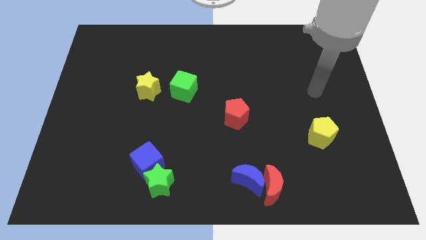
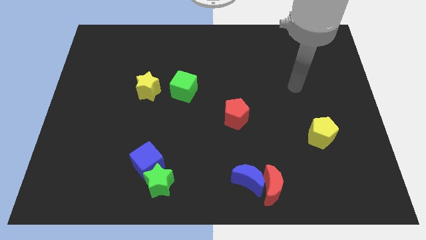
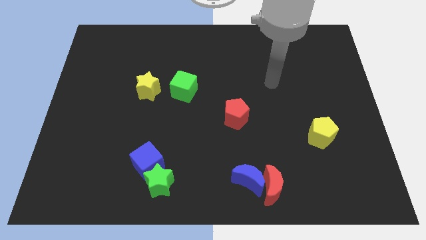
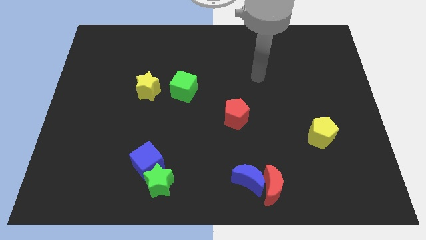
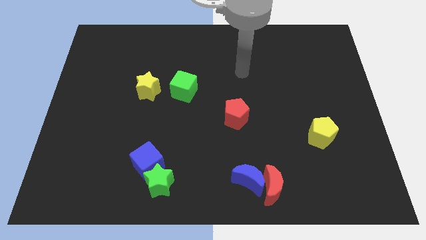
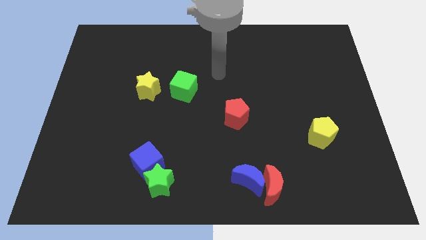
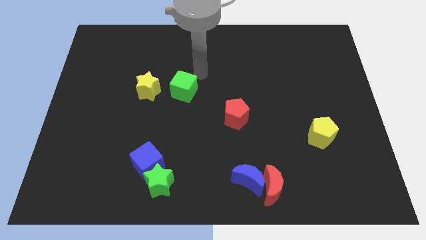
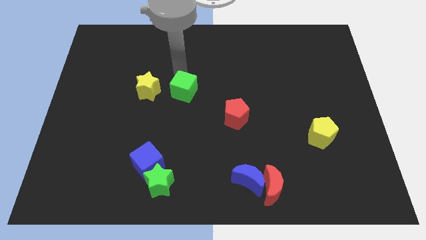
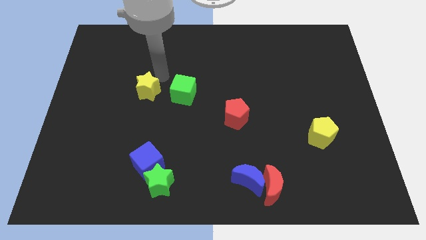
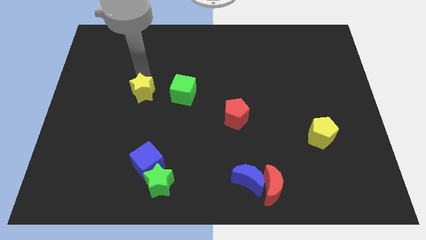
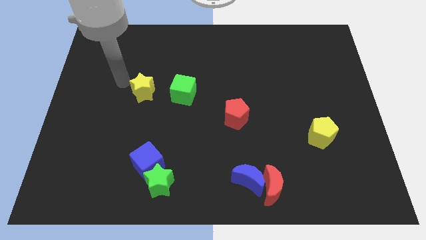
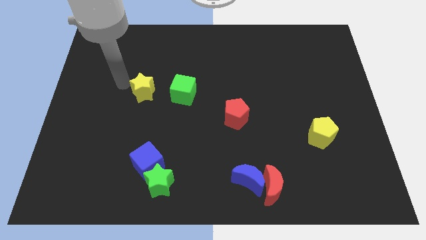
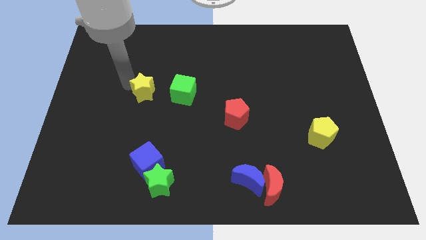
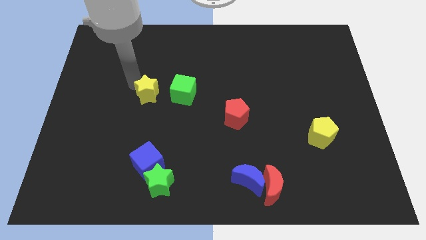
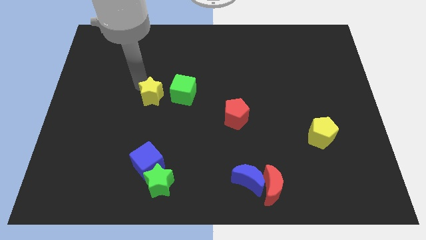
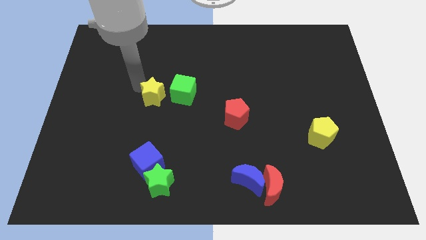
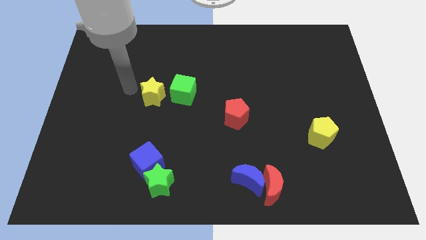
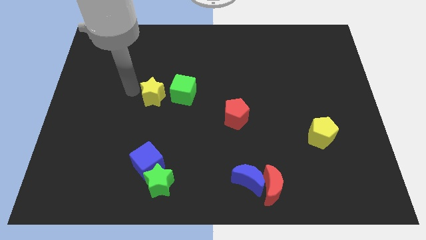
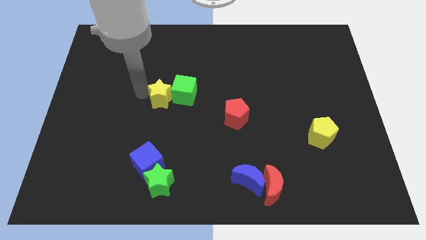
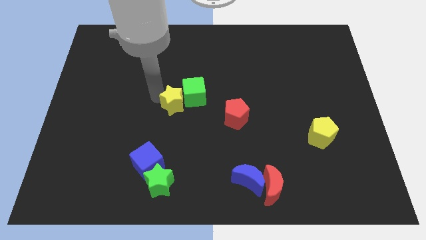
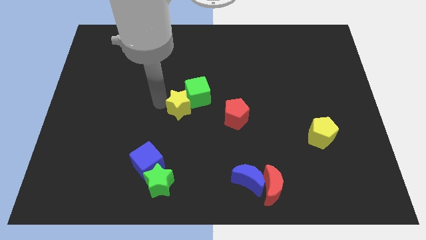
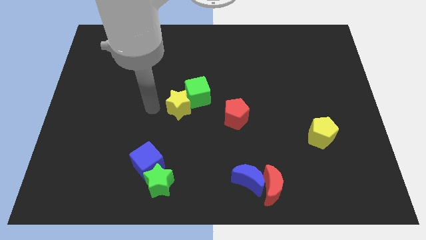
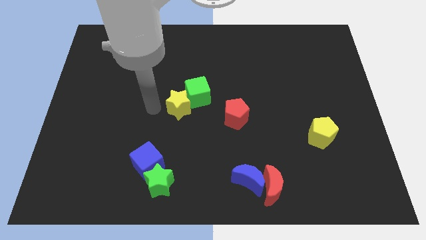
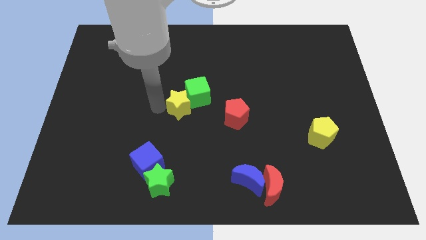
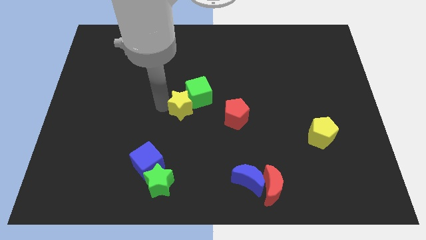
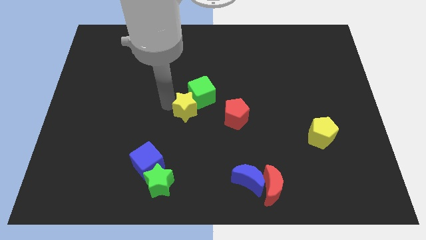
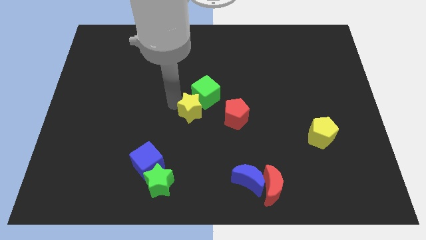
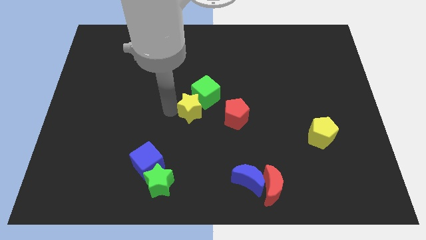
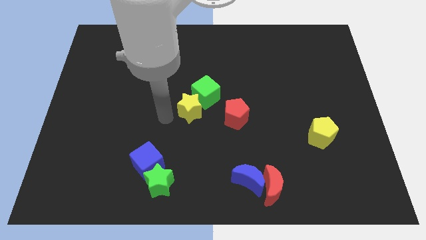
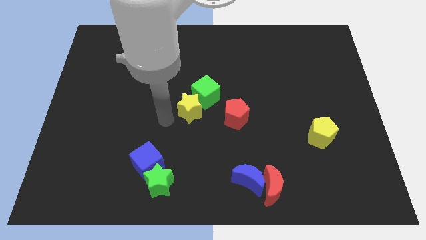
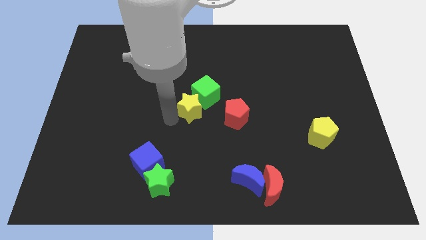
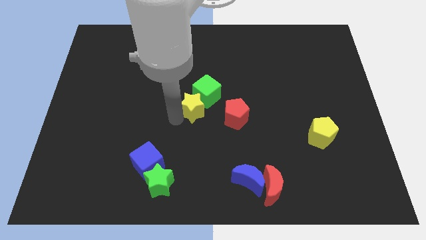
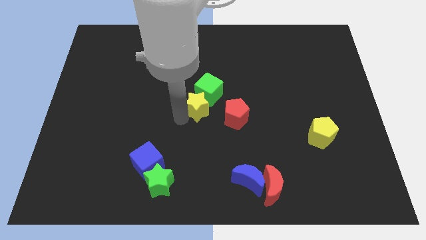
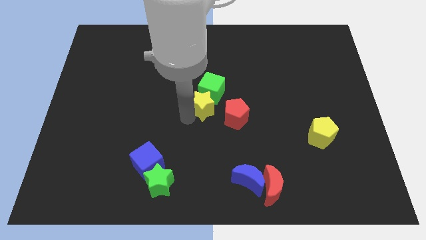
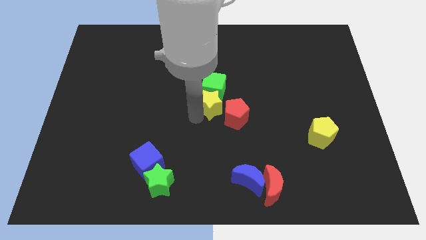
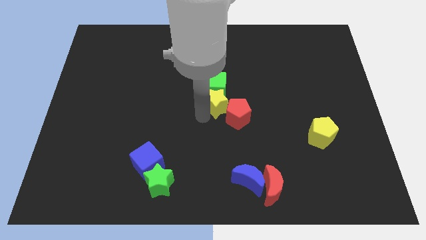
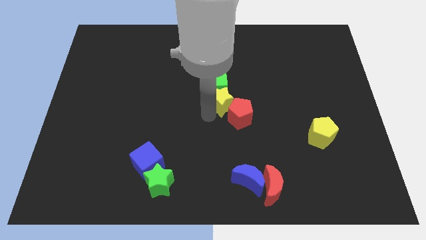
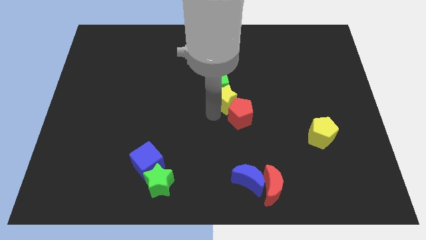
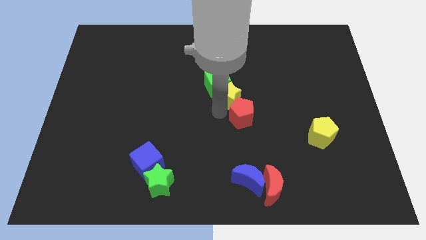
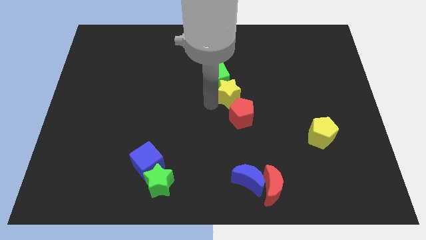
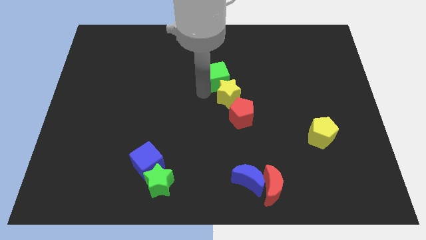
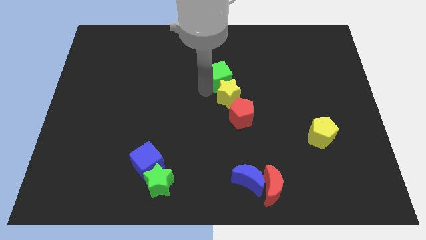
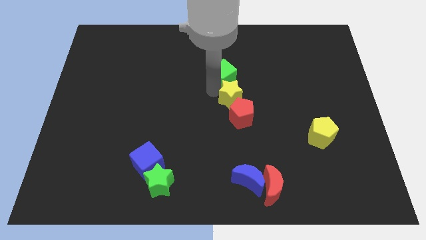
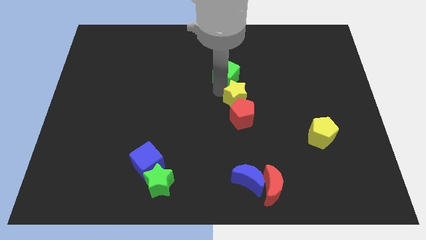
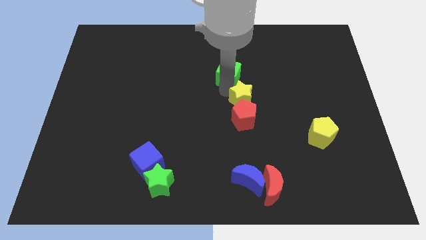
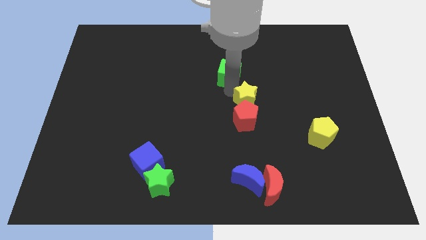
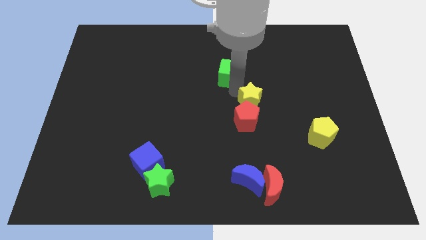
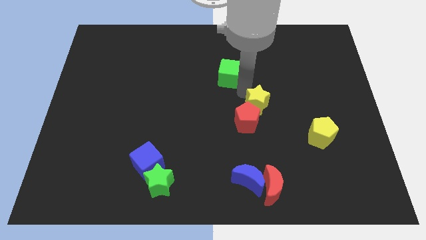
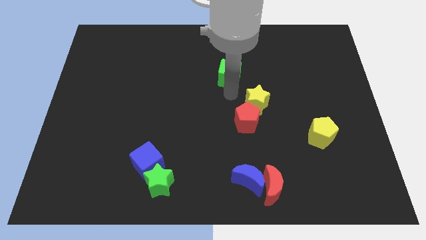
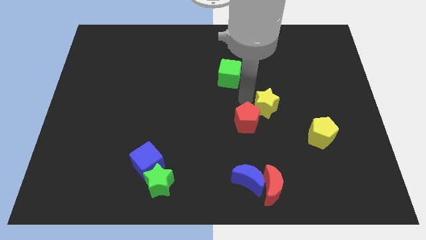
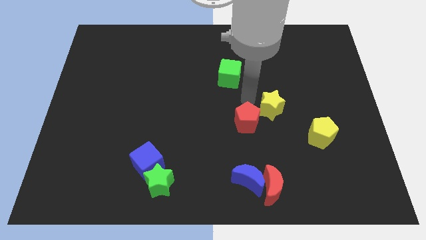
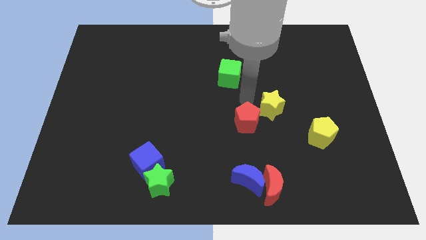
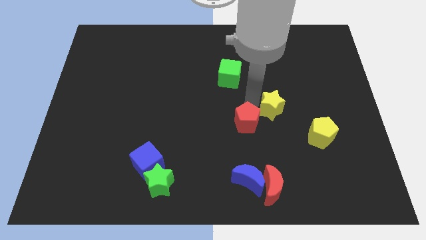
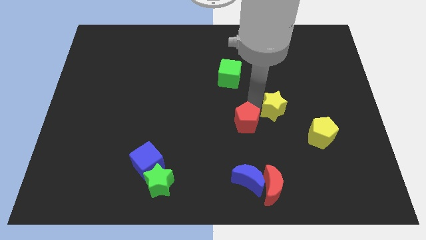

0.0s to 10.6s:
move the yellow star to the top left of the yellow pentagon

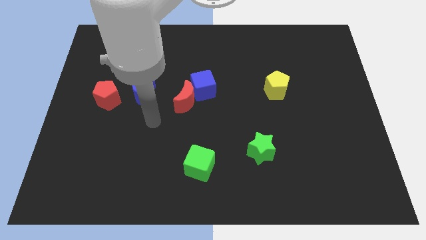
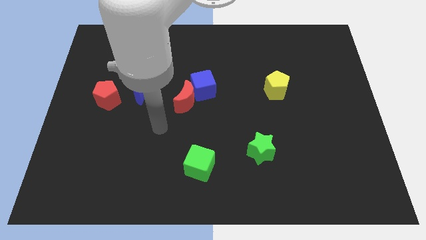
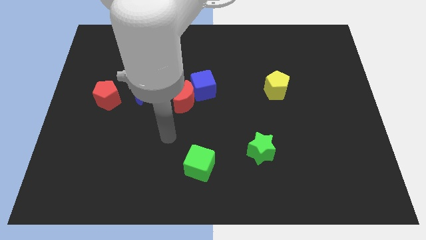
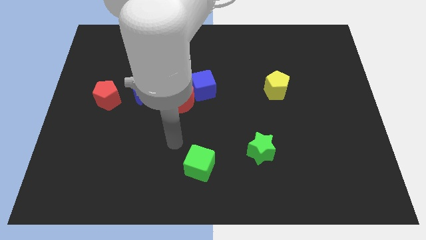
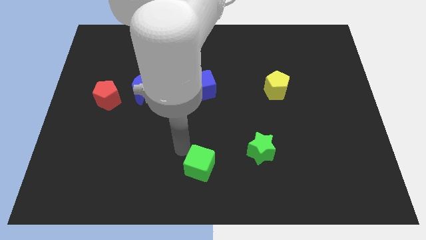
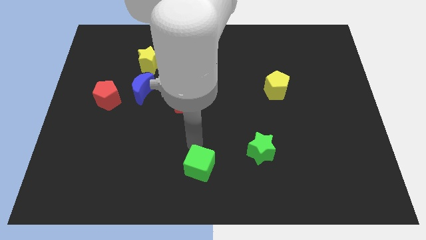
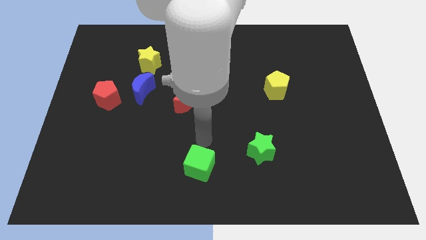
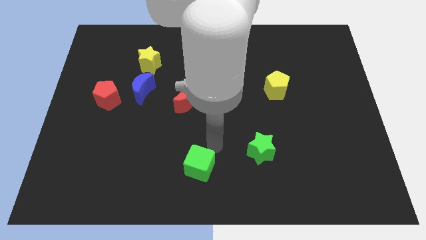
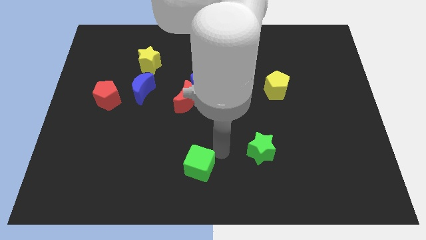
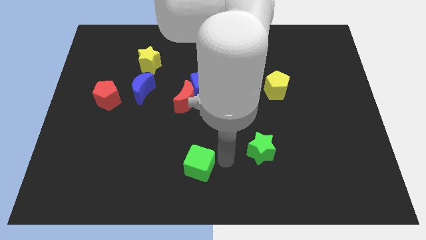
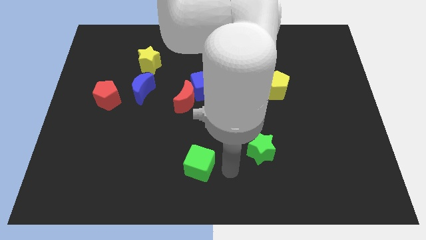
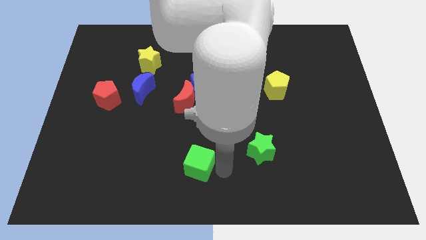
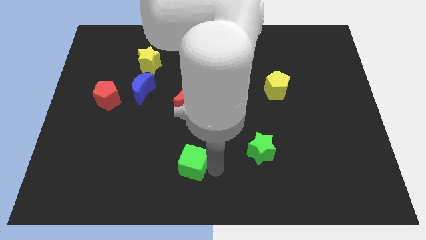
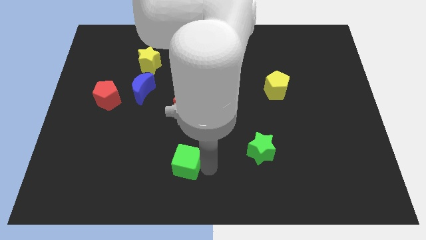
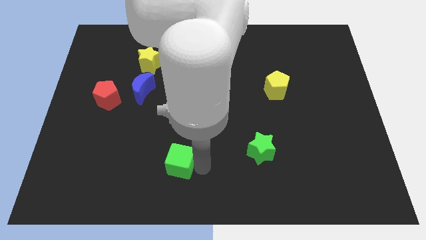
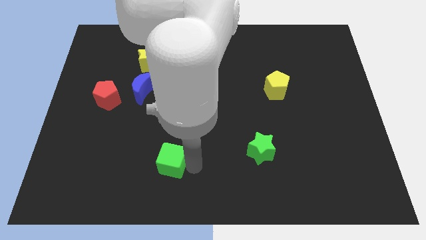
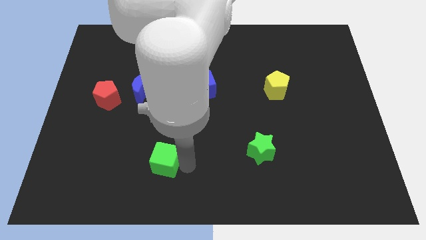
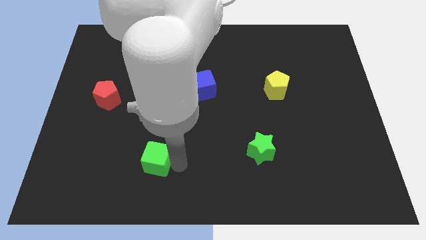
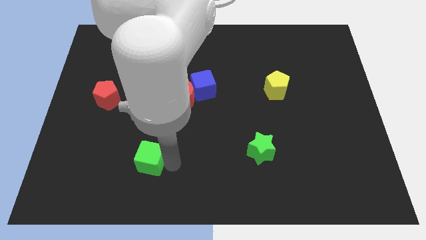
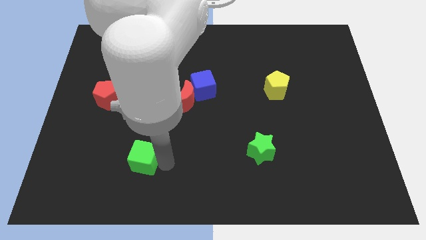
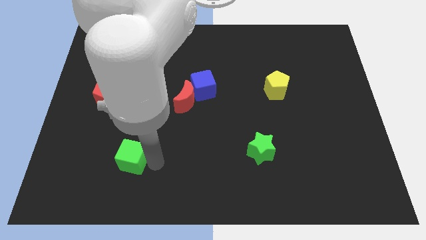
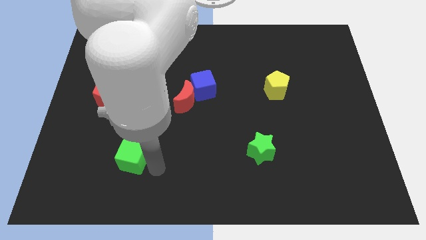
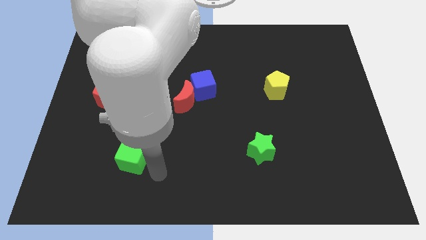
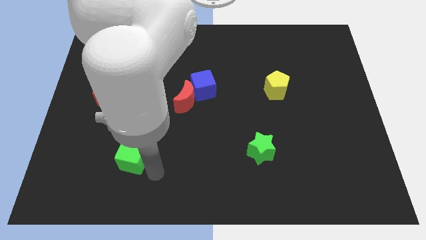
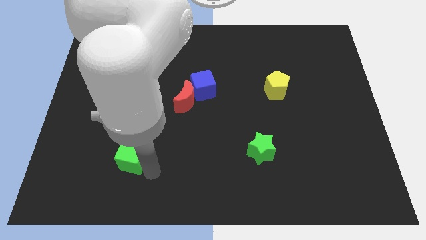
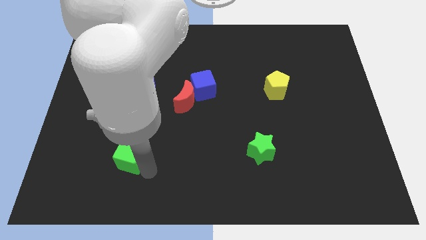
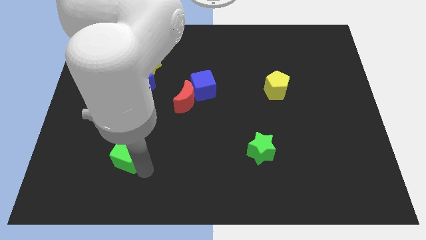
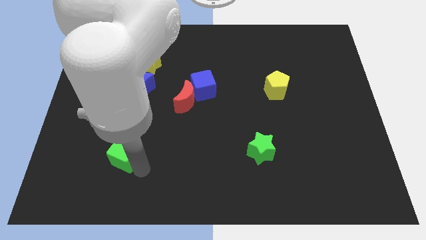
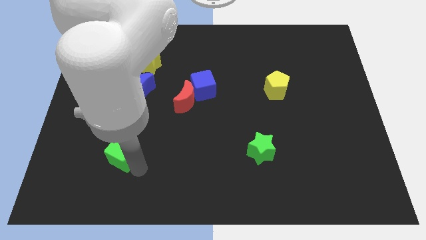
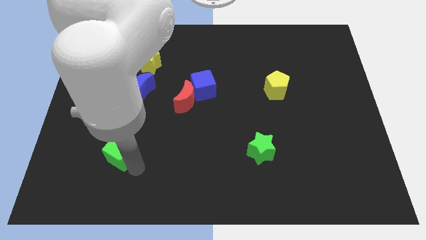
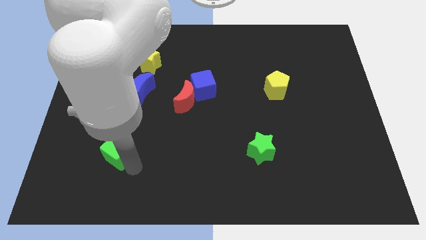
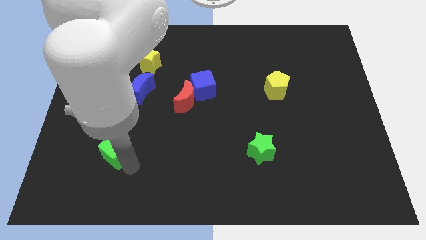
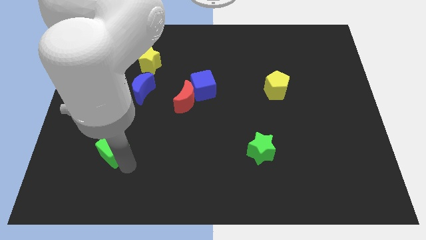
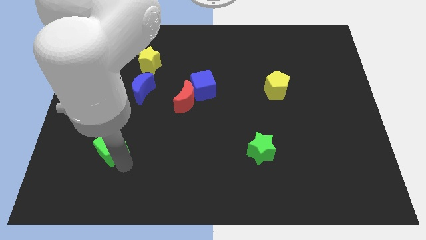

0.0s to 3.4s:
put the green cube to the bottom side of the red pentagon
